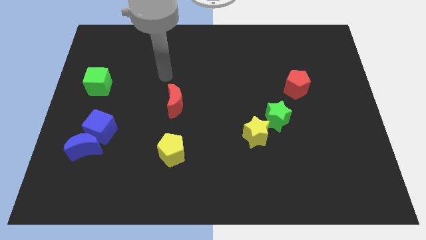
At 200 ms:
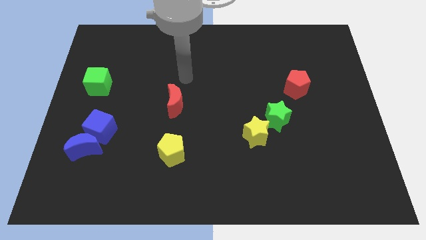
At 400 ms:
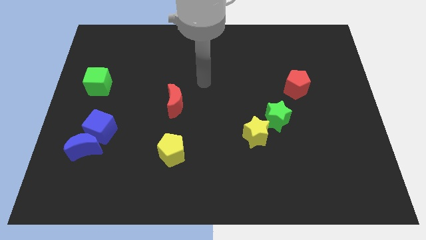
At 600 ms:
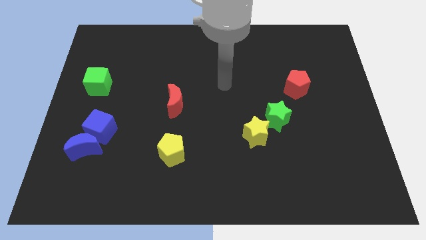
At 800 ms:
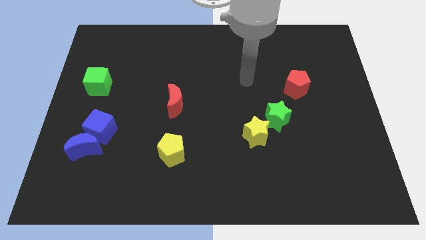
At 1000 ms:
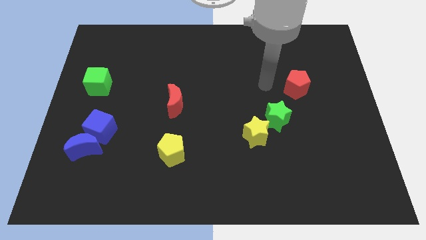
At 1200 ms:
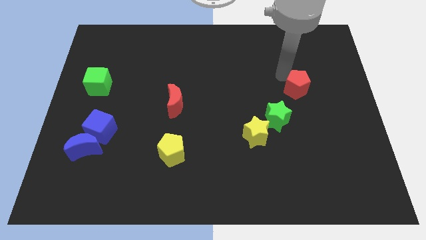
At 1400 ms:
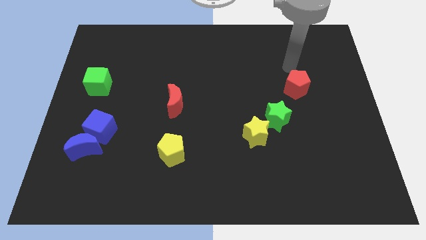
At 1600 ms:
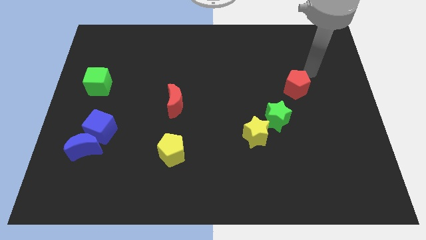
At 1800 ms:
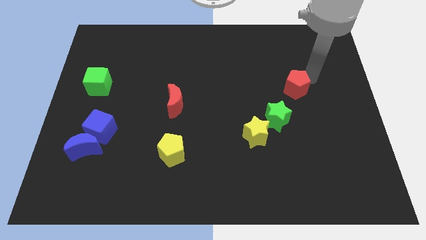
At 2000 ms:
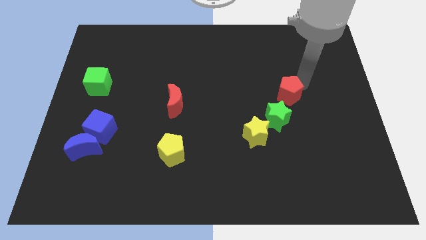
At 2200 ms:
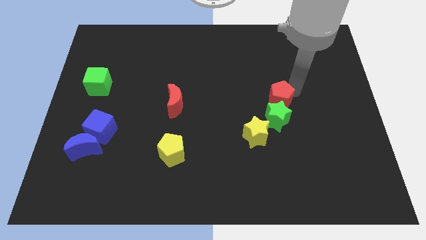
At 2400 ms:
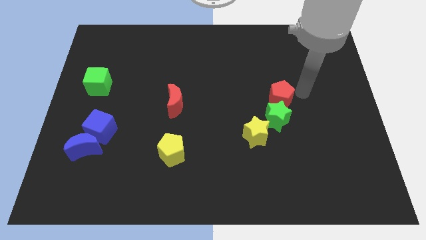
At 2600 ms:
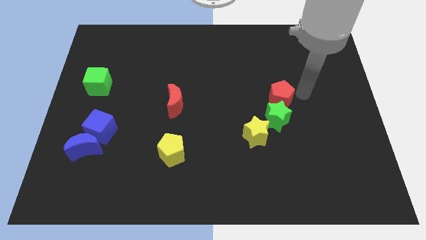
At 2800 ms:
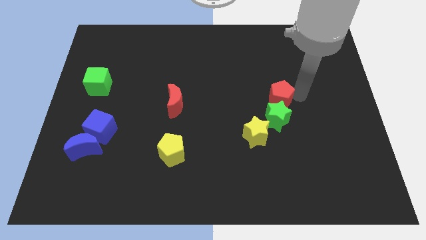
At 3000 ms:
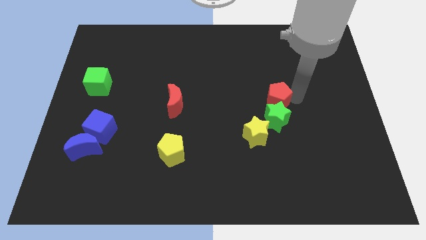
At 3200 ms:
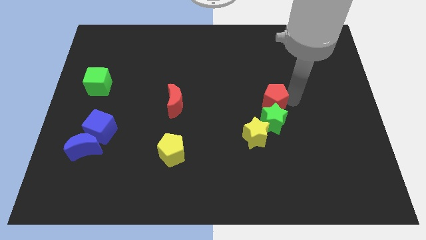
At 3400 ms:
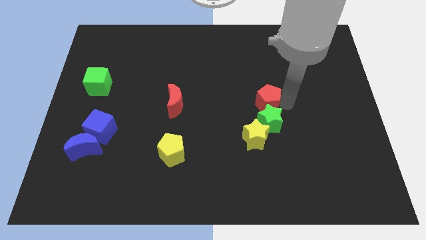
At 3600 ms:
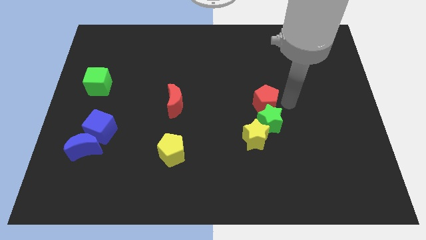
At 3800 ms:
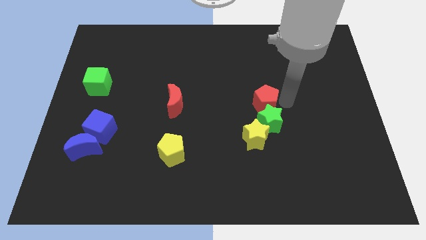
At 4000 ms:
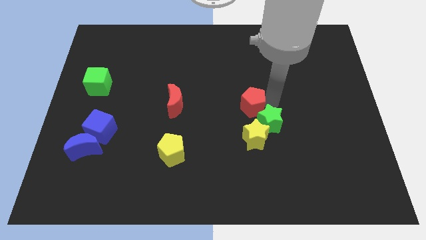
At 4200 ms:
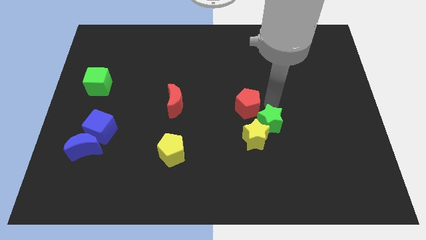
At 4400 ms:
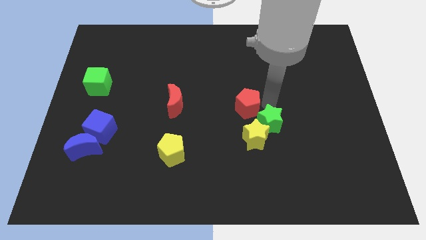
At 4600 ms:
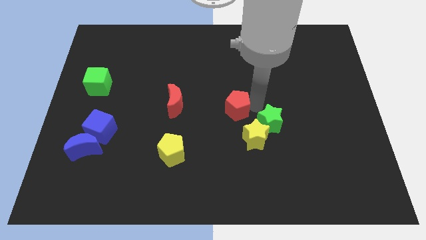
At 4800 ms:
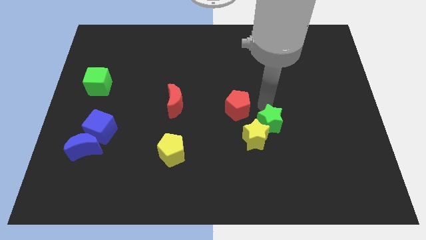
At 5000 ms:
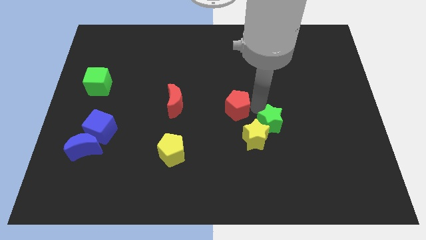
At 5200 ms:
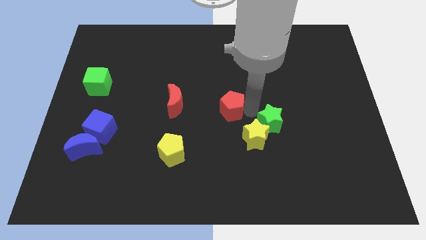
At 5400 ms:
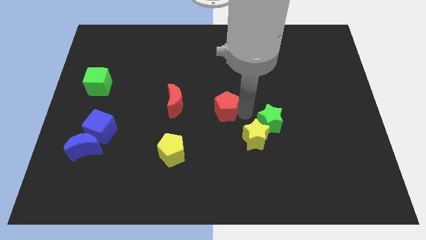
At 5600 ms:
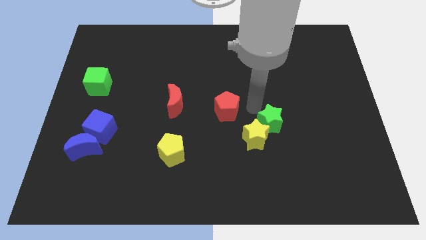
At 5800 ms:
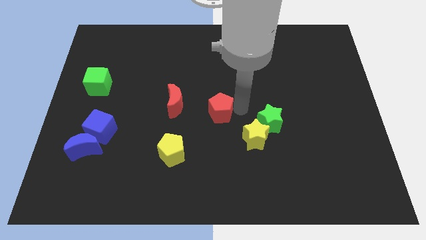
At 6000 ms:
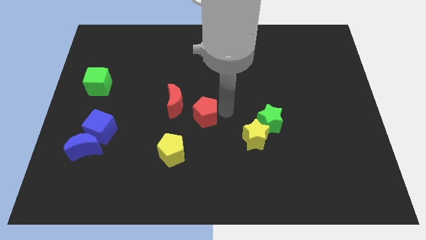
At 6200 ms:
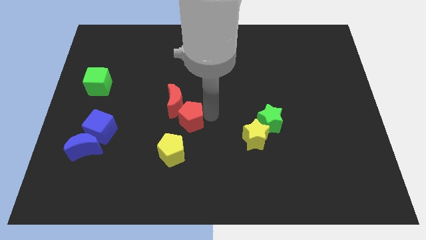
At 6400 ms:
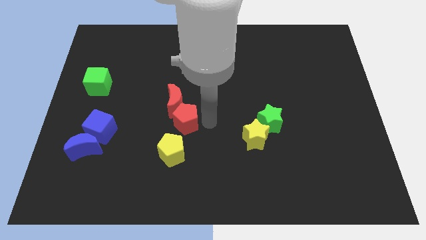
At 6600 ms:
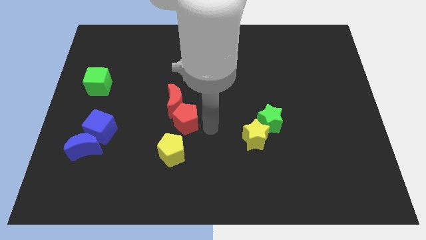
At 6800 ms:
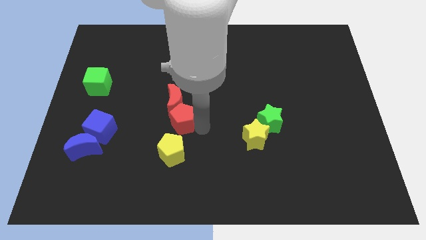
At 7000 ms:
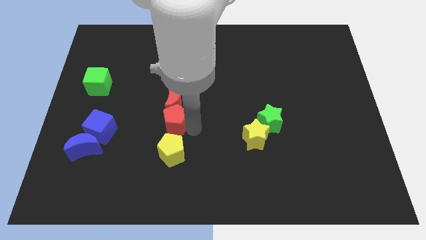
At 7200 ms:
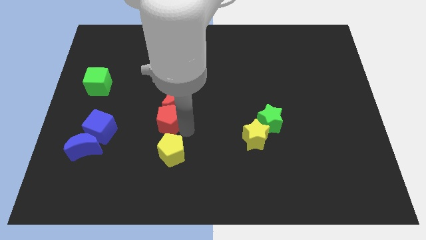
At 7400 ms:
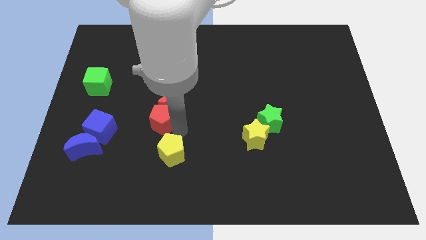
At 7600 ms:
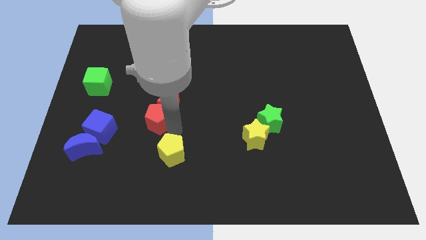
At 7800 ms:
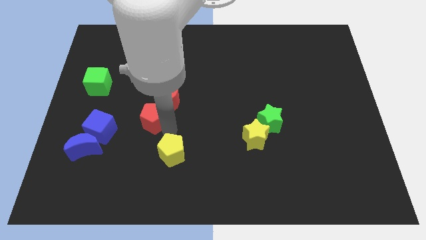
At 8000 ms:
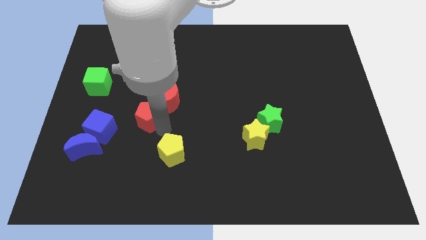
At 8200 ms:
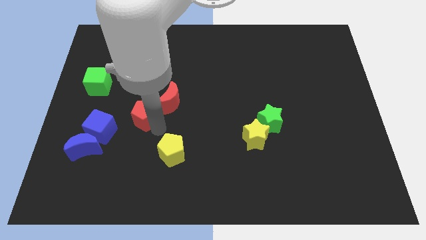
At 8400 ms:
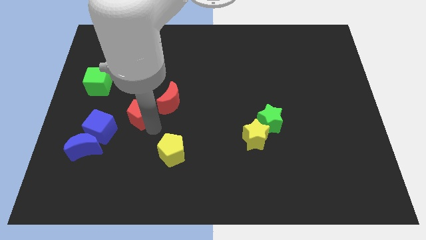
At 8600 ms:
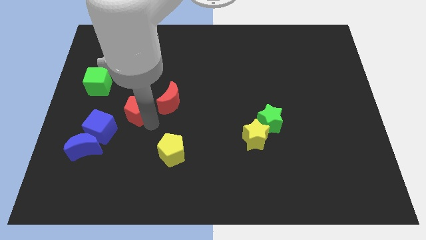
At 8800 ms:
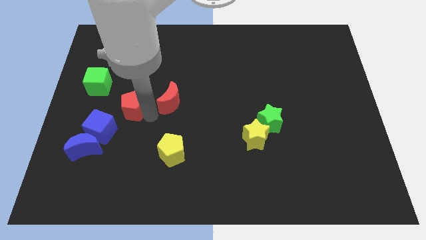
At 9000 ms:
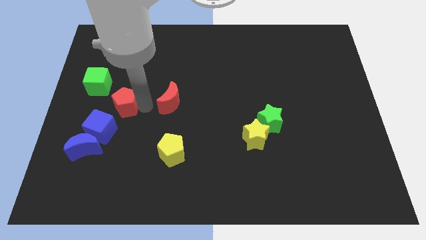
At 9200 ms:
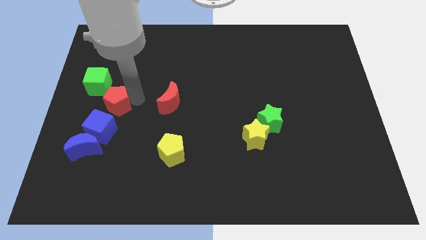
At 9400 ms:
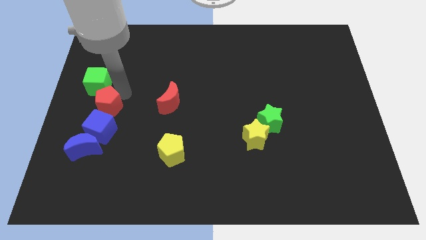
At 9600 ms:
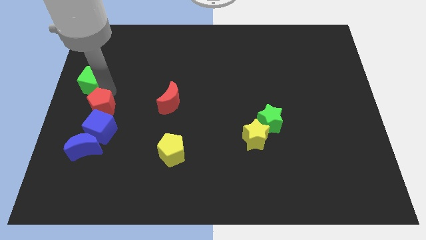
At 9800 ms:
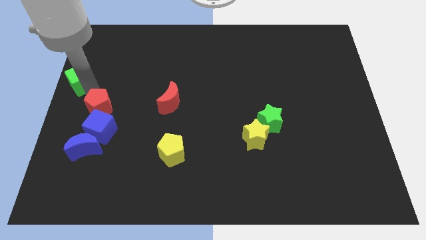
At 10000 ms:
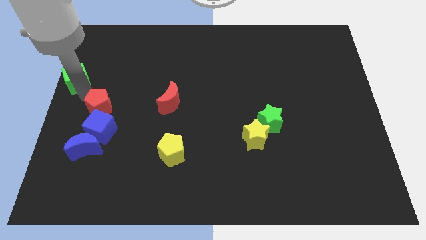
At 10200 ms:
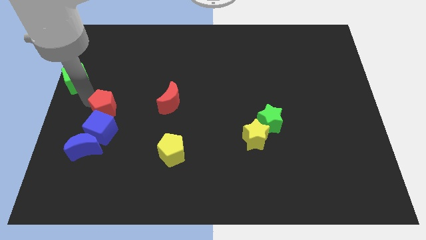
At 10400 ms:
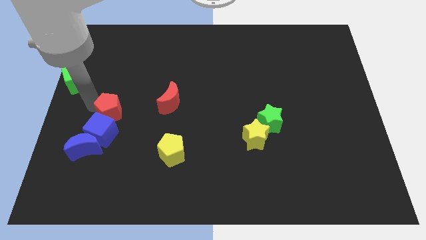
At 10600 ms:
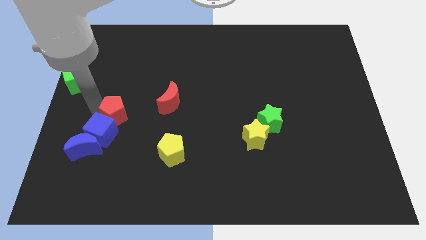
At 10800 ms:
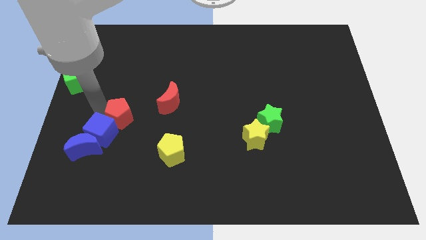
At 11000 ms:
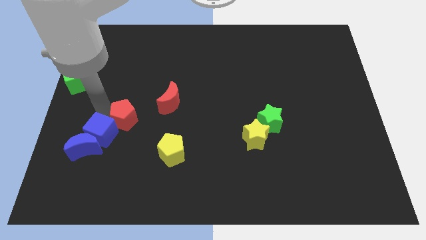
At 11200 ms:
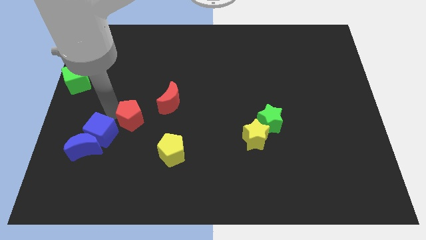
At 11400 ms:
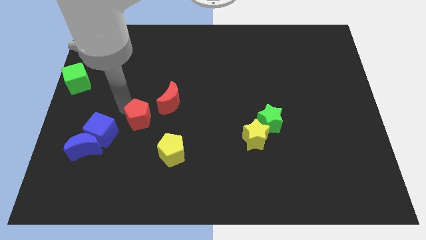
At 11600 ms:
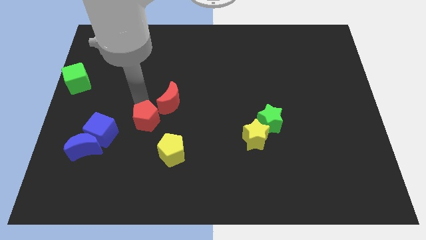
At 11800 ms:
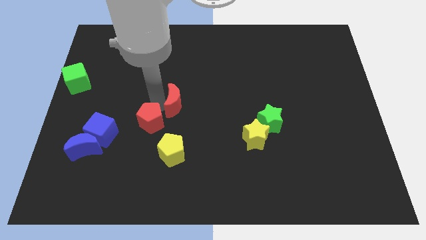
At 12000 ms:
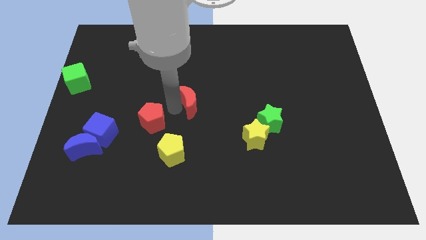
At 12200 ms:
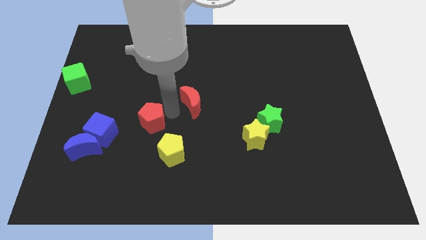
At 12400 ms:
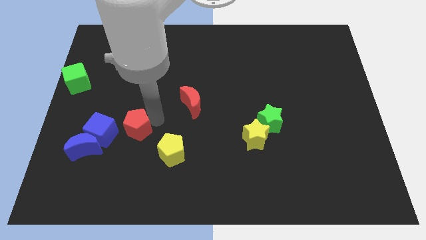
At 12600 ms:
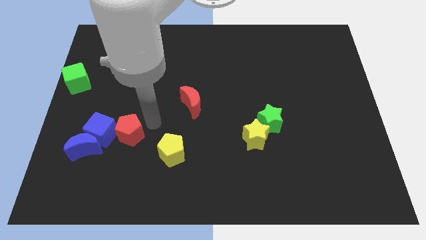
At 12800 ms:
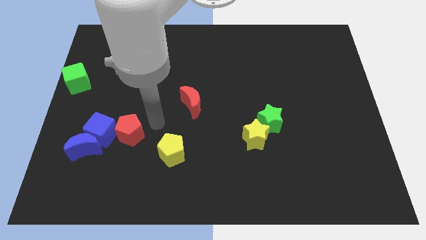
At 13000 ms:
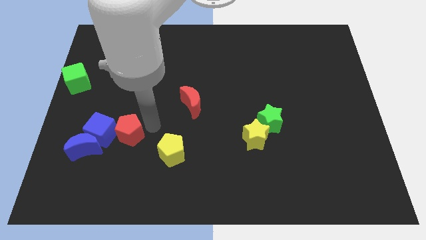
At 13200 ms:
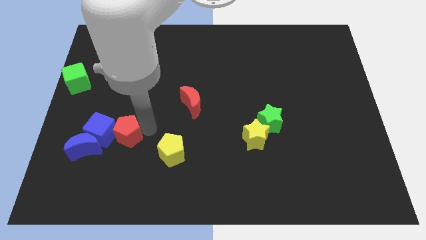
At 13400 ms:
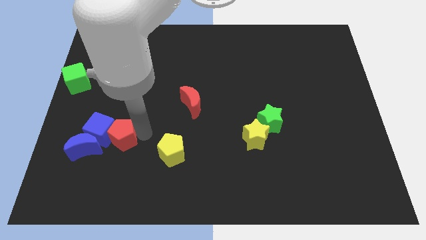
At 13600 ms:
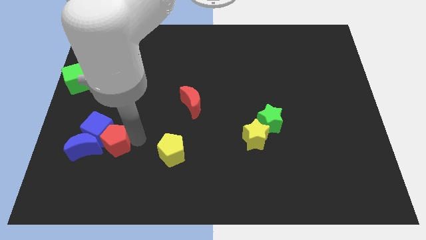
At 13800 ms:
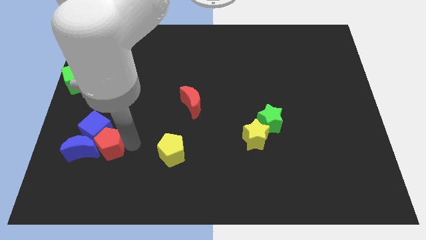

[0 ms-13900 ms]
put the red pentagon to the blue moon

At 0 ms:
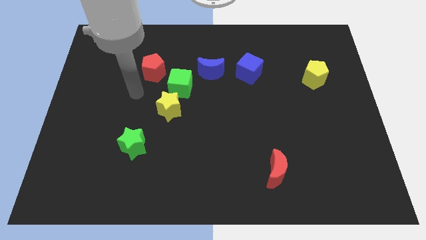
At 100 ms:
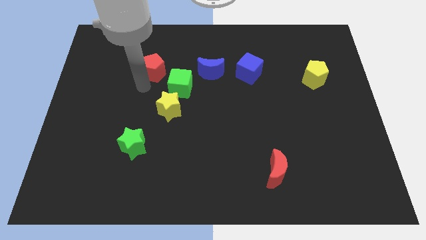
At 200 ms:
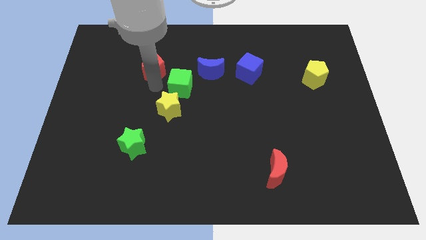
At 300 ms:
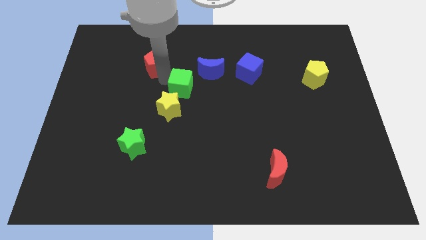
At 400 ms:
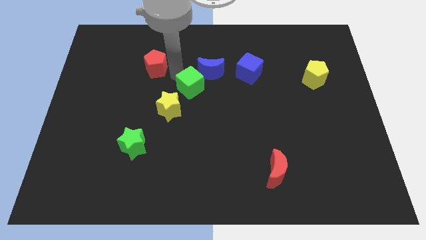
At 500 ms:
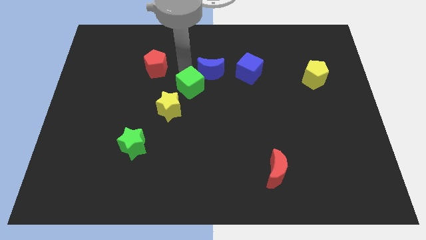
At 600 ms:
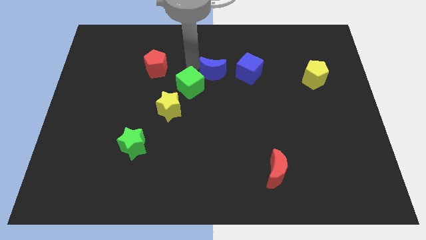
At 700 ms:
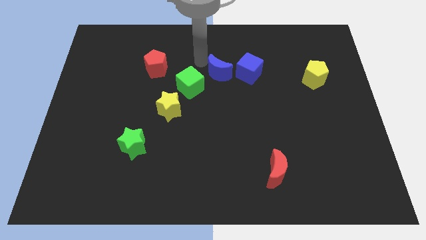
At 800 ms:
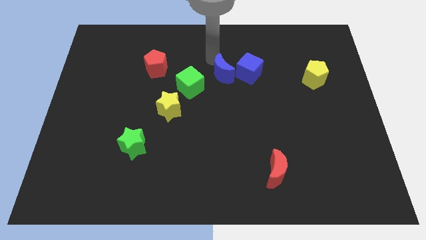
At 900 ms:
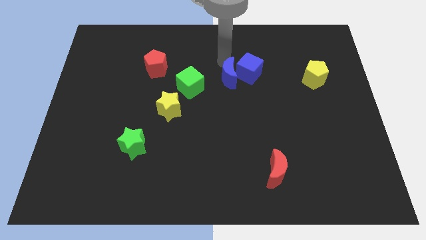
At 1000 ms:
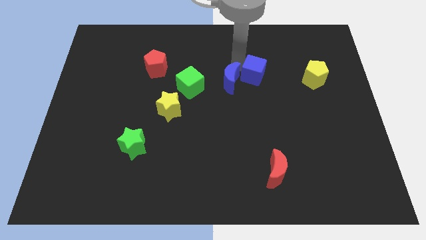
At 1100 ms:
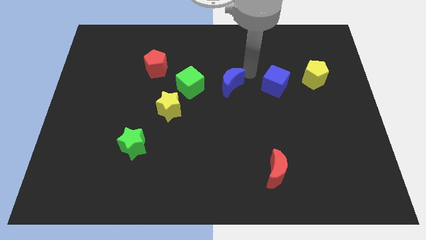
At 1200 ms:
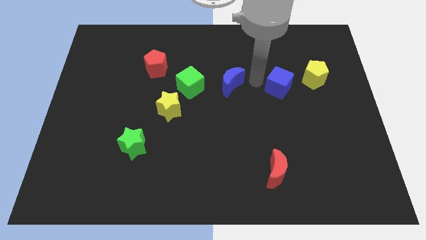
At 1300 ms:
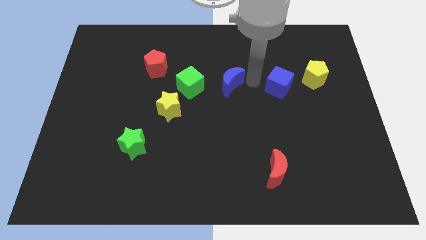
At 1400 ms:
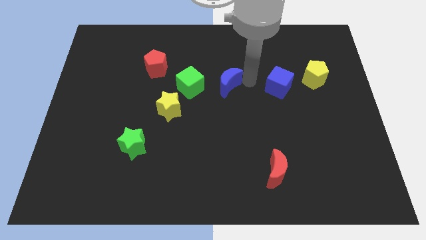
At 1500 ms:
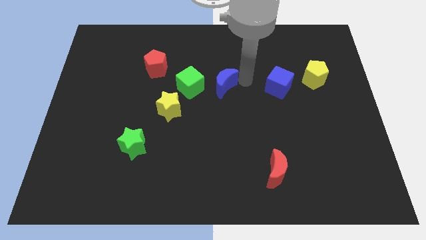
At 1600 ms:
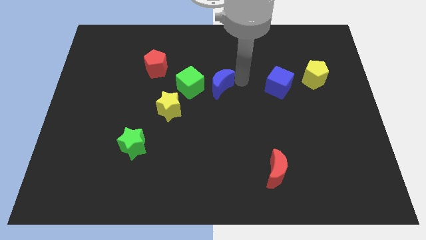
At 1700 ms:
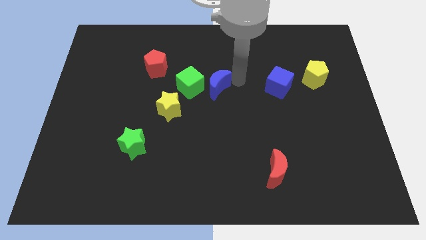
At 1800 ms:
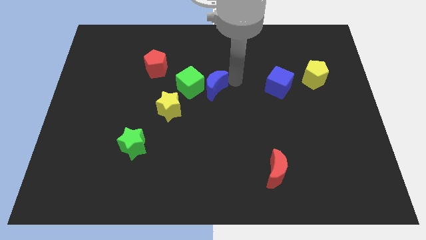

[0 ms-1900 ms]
push the blue moon towards the green cube
